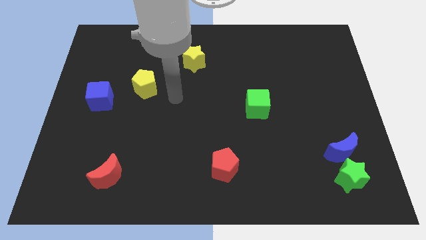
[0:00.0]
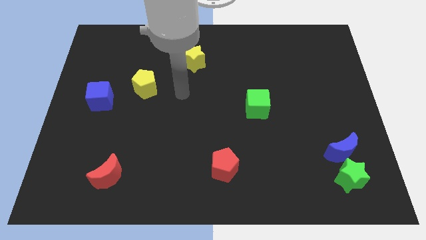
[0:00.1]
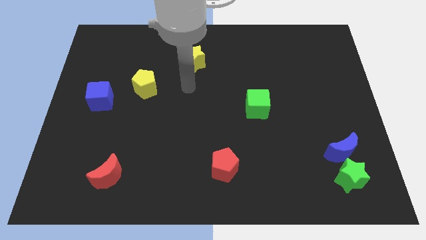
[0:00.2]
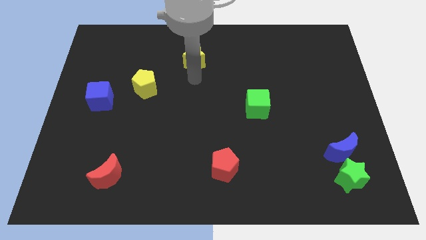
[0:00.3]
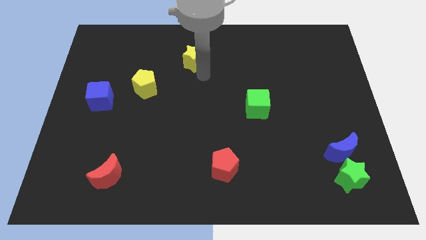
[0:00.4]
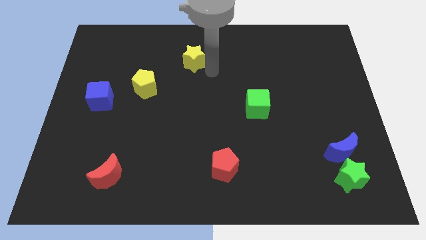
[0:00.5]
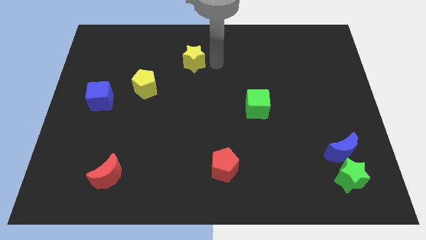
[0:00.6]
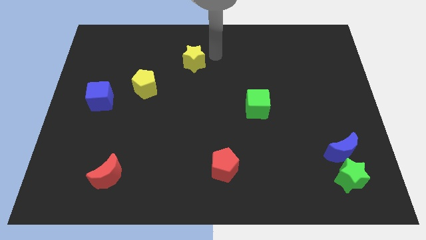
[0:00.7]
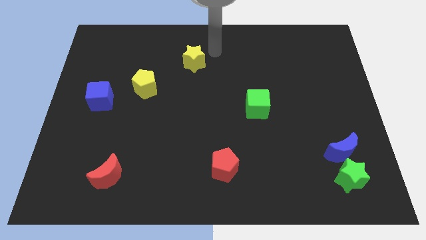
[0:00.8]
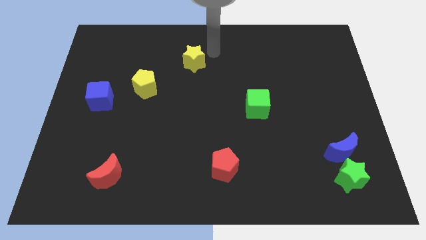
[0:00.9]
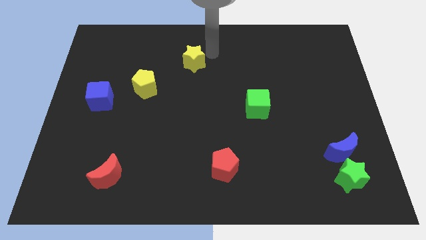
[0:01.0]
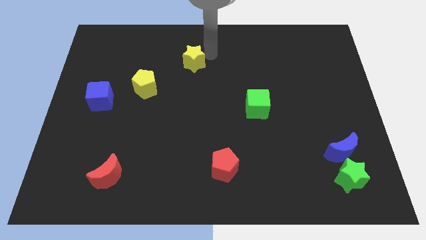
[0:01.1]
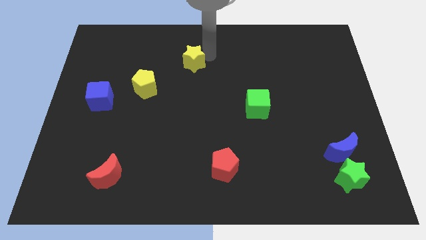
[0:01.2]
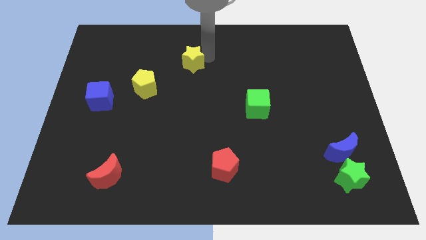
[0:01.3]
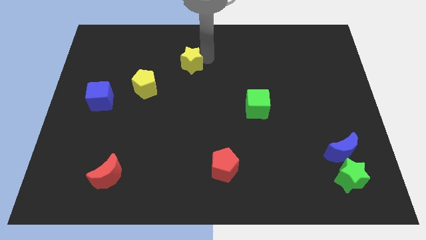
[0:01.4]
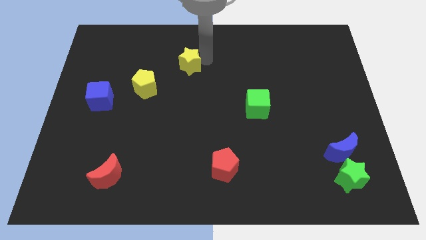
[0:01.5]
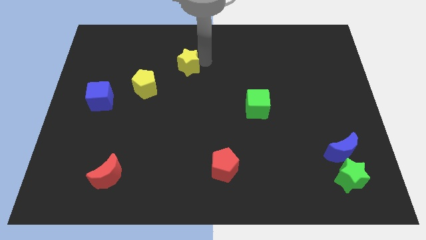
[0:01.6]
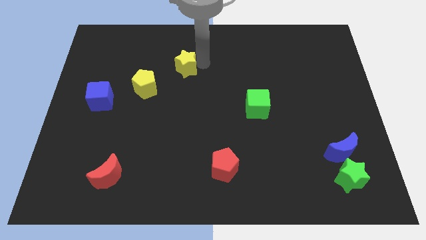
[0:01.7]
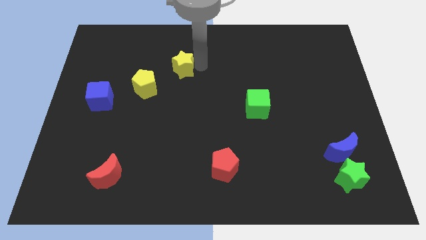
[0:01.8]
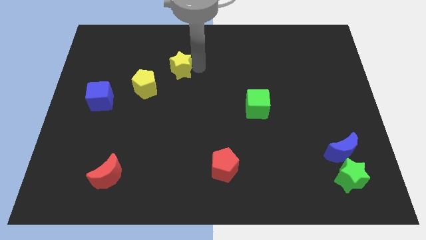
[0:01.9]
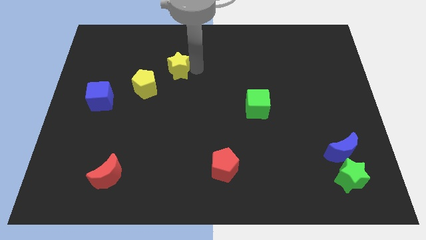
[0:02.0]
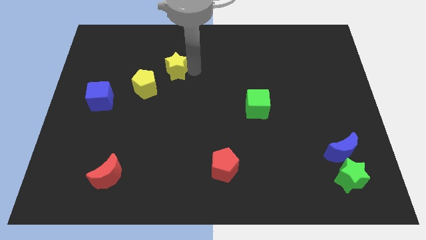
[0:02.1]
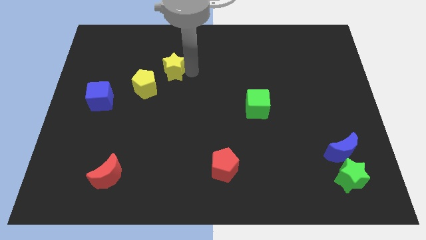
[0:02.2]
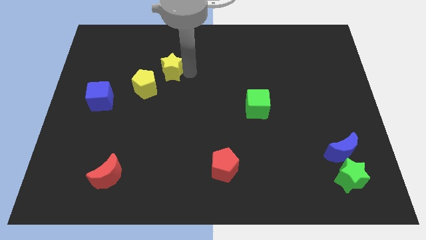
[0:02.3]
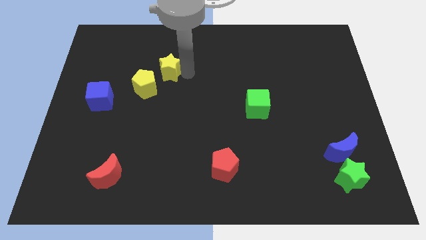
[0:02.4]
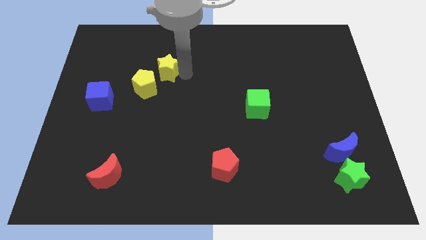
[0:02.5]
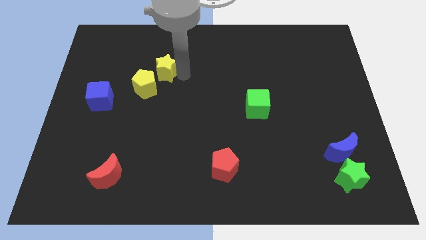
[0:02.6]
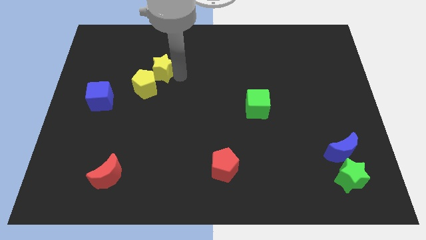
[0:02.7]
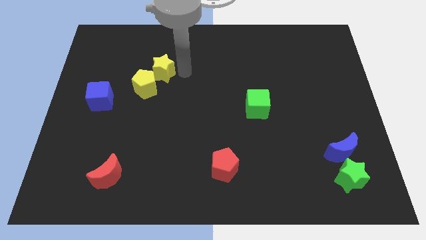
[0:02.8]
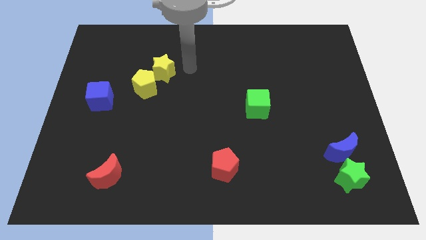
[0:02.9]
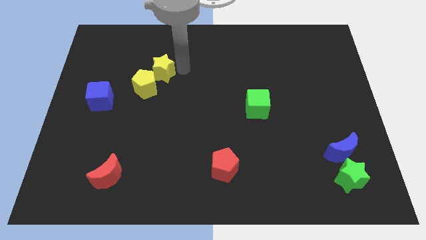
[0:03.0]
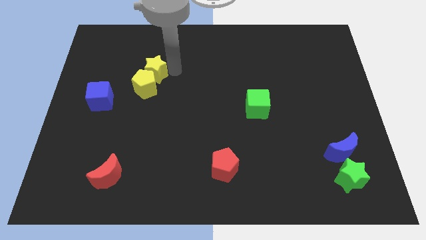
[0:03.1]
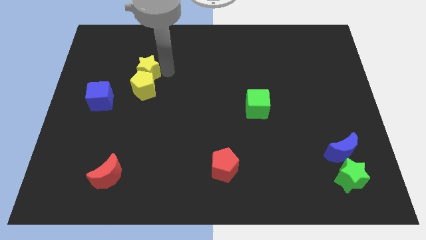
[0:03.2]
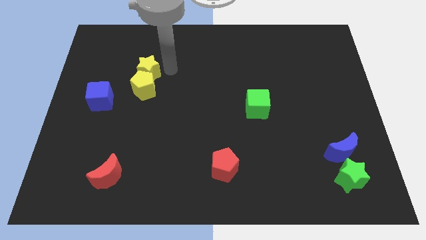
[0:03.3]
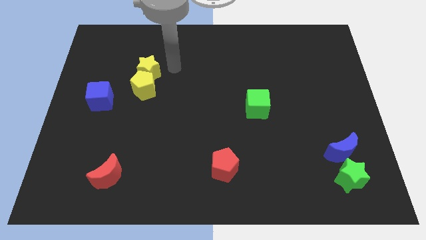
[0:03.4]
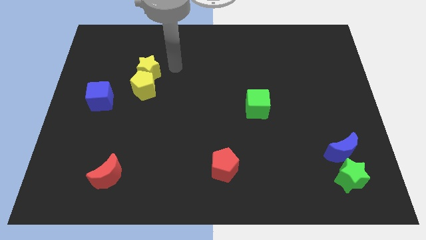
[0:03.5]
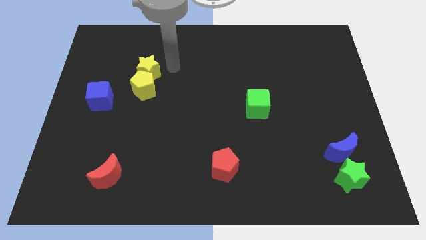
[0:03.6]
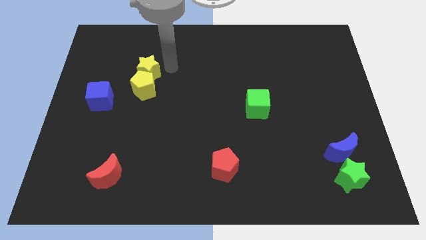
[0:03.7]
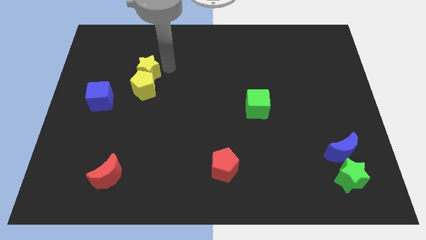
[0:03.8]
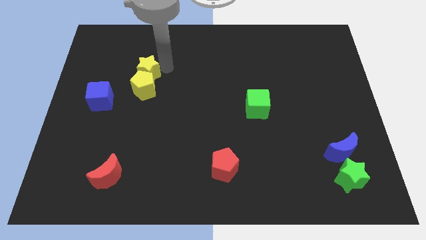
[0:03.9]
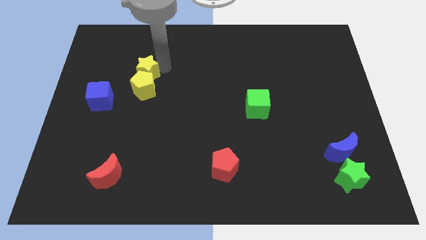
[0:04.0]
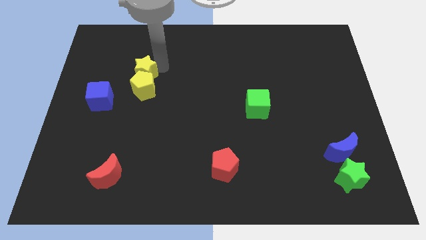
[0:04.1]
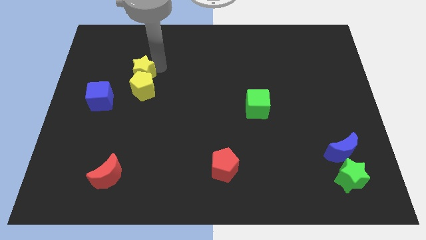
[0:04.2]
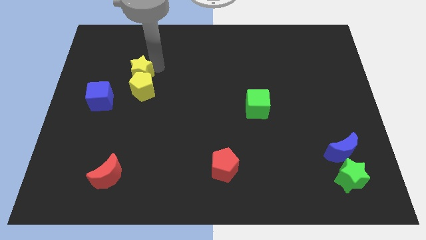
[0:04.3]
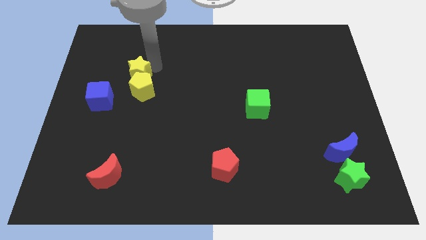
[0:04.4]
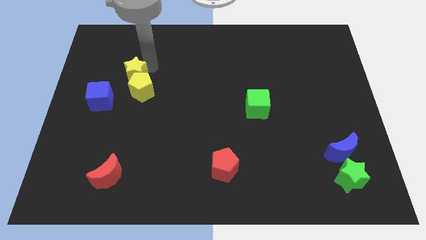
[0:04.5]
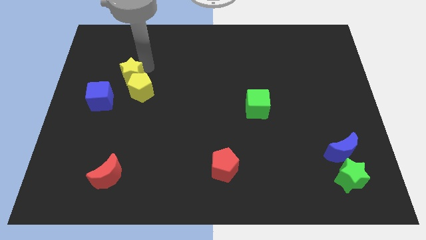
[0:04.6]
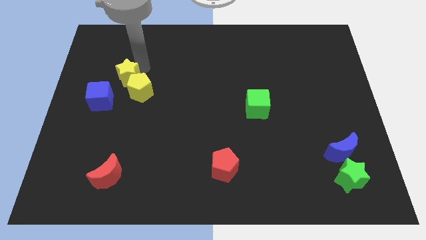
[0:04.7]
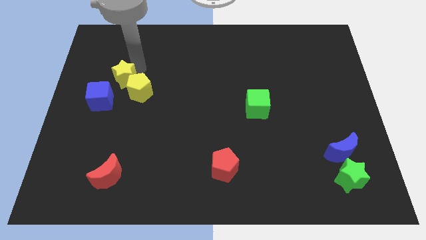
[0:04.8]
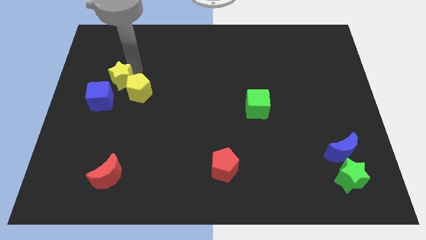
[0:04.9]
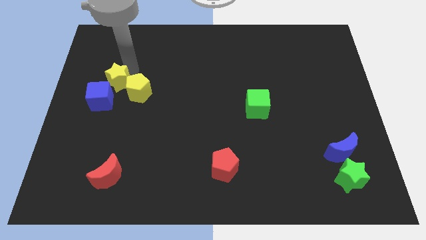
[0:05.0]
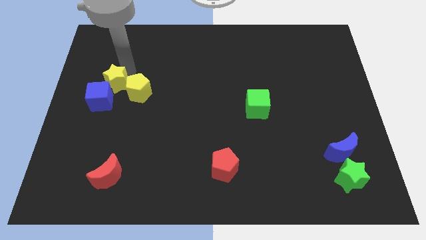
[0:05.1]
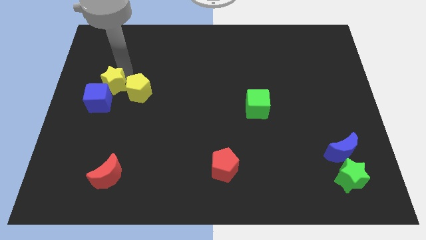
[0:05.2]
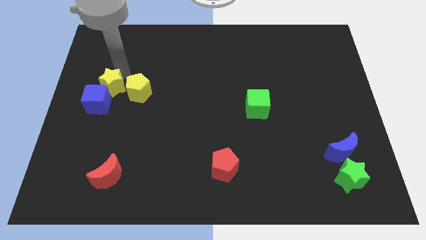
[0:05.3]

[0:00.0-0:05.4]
move the yellow star to the blue cube

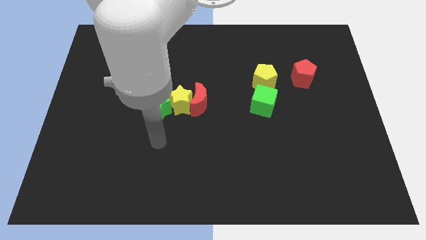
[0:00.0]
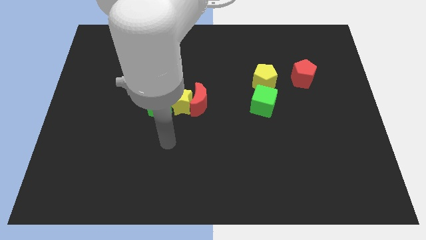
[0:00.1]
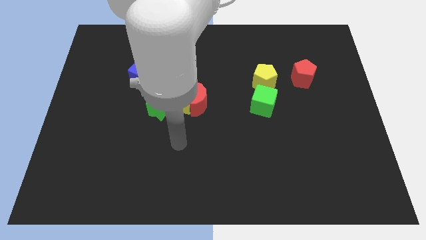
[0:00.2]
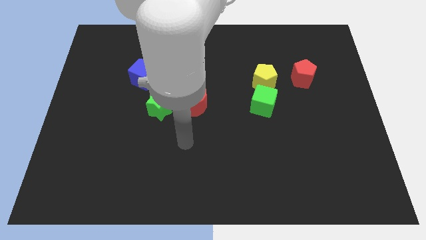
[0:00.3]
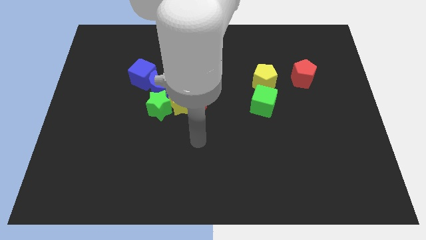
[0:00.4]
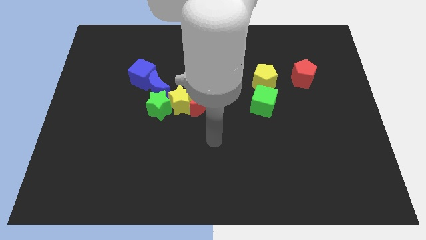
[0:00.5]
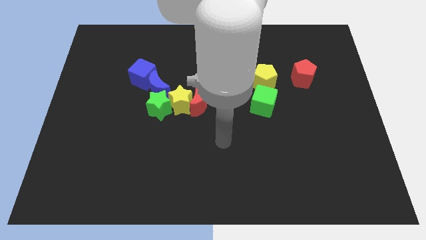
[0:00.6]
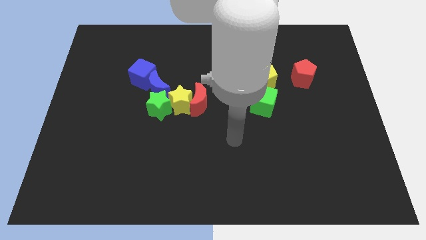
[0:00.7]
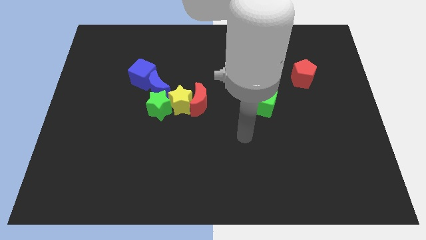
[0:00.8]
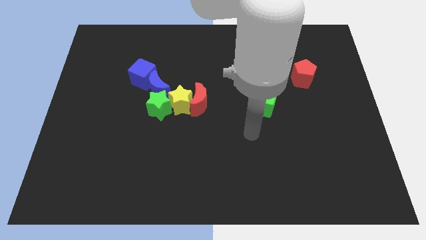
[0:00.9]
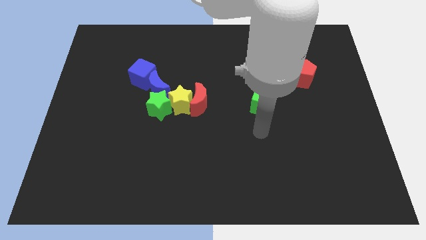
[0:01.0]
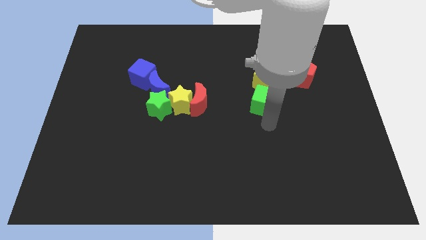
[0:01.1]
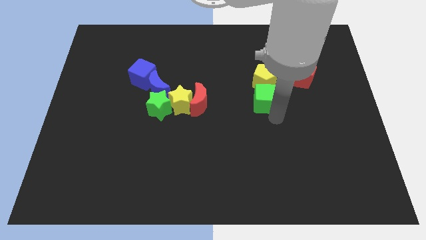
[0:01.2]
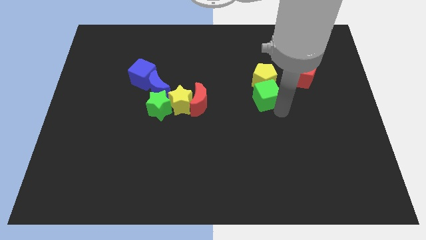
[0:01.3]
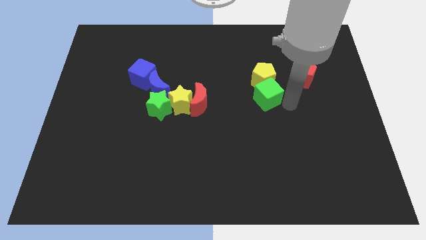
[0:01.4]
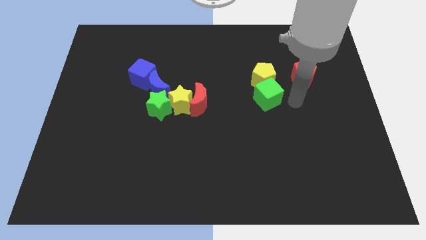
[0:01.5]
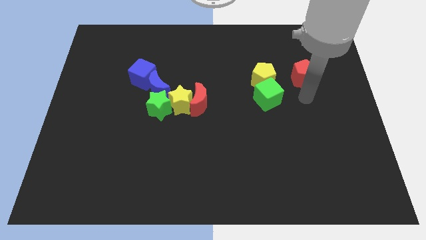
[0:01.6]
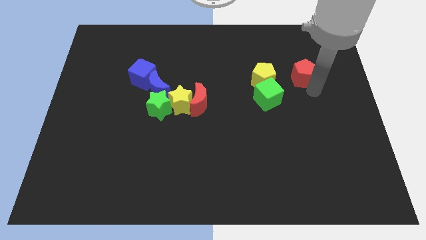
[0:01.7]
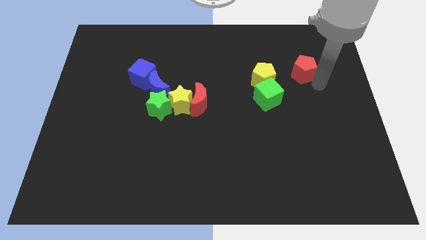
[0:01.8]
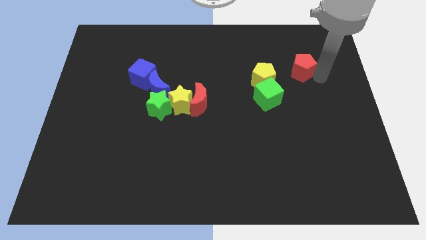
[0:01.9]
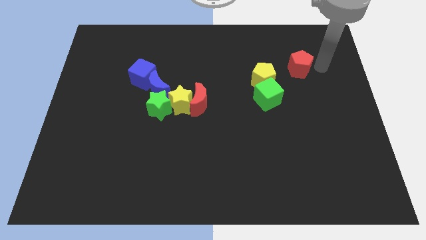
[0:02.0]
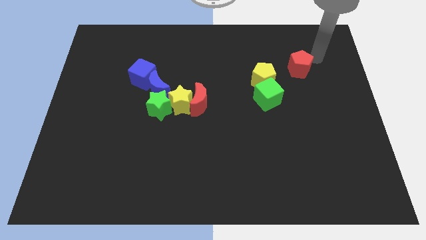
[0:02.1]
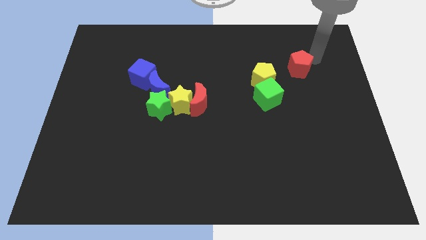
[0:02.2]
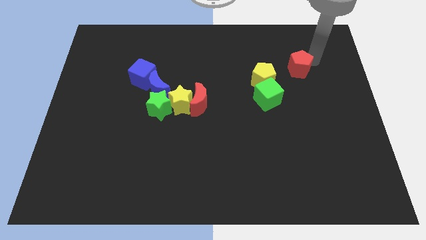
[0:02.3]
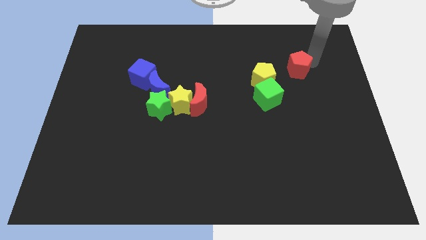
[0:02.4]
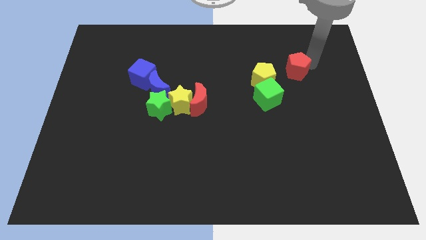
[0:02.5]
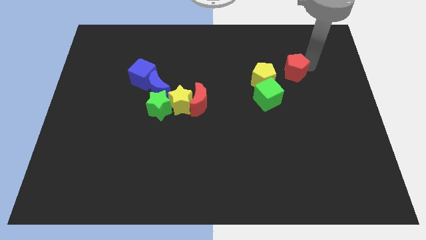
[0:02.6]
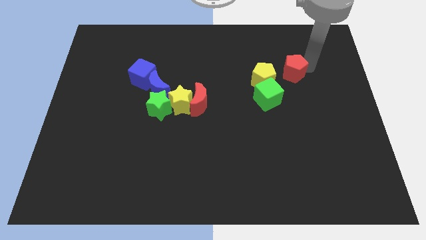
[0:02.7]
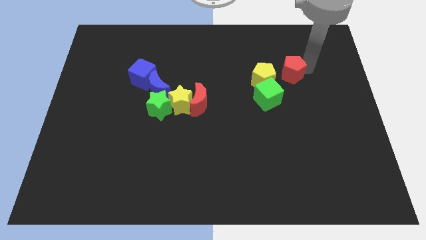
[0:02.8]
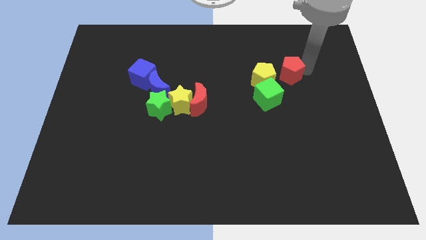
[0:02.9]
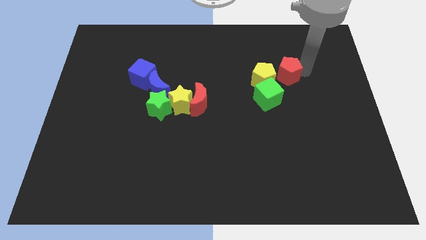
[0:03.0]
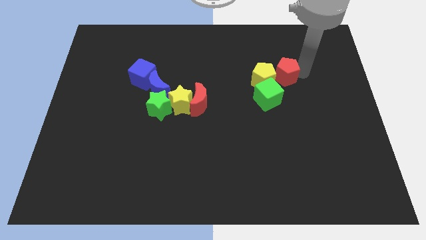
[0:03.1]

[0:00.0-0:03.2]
move the red pentagon to the yellow pentagon
